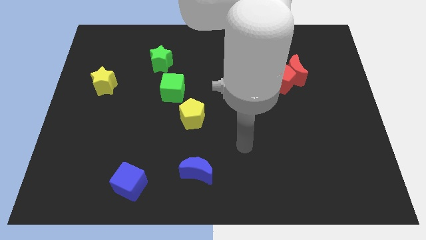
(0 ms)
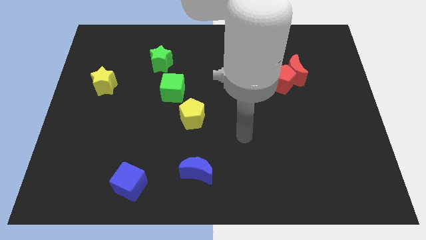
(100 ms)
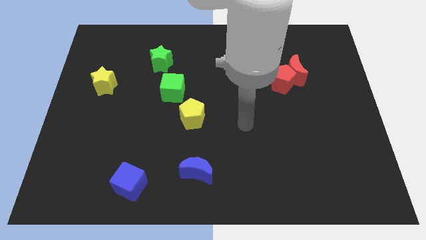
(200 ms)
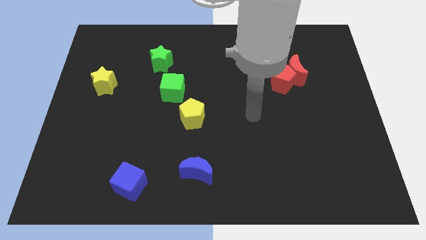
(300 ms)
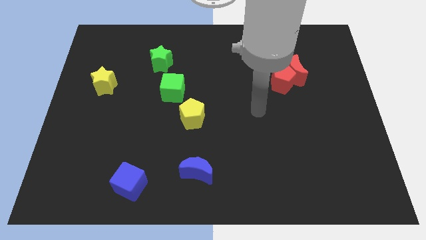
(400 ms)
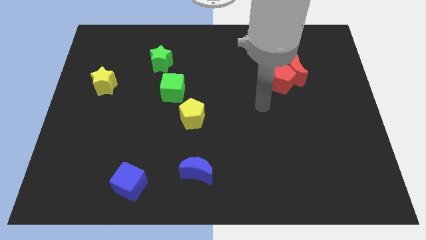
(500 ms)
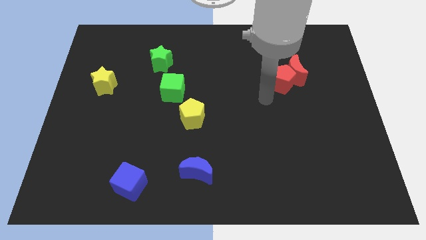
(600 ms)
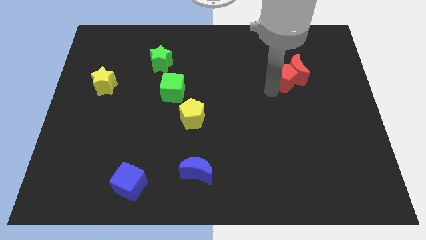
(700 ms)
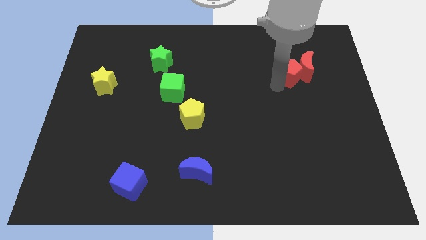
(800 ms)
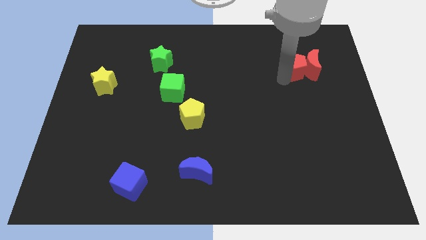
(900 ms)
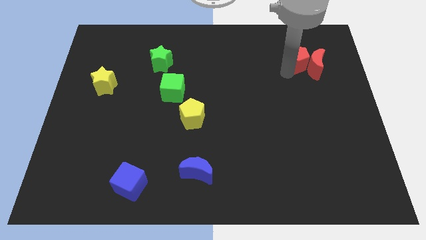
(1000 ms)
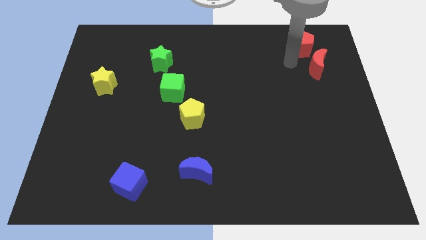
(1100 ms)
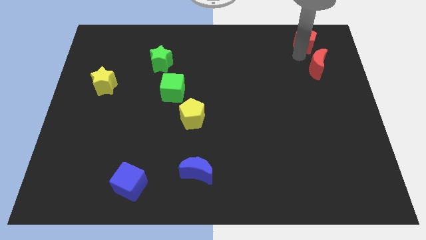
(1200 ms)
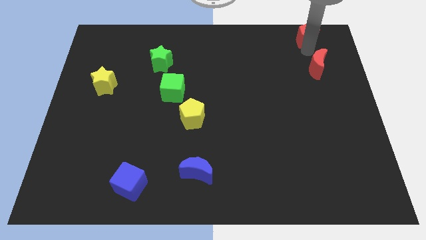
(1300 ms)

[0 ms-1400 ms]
separate the red moon from the red pentagon

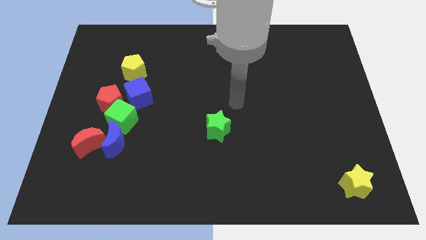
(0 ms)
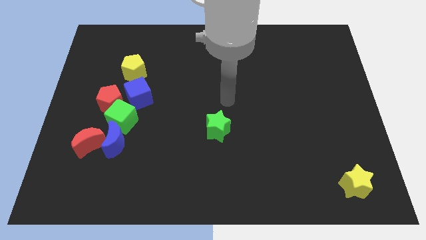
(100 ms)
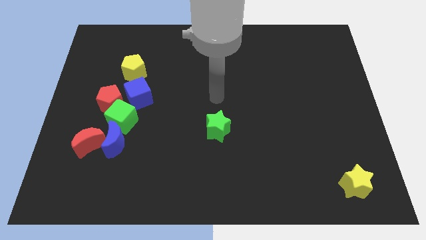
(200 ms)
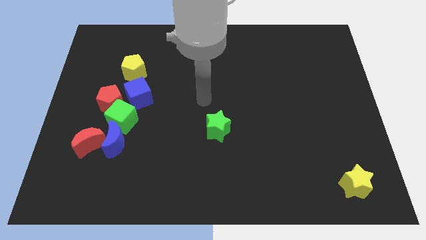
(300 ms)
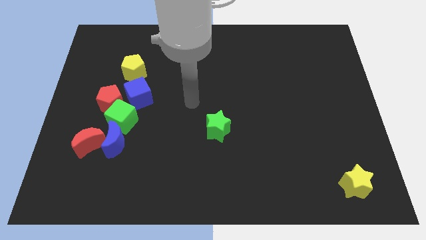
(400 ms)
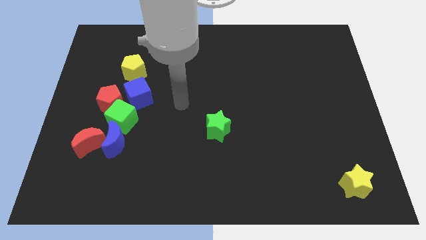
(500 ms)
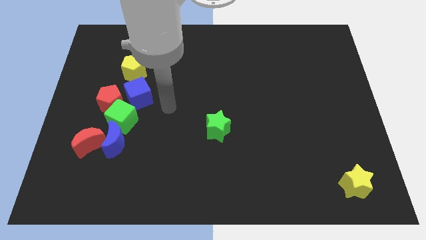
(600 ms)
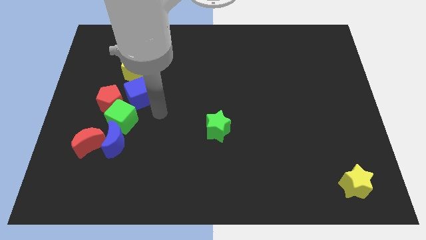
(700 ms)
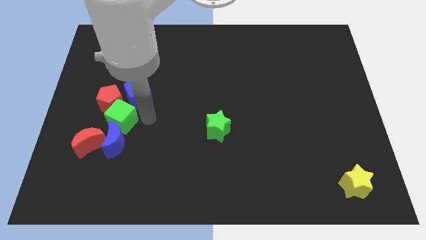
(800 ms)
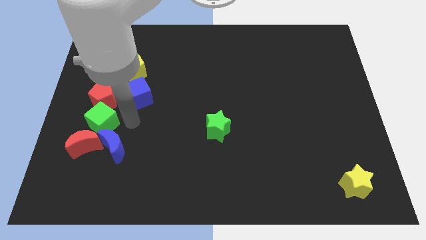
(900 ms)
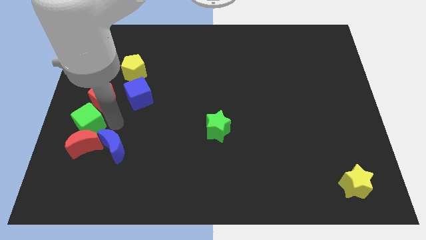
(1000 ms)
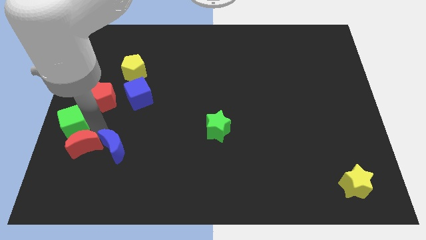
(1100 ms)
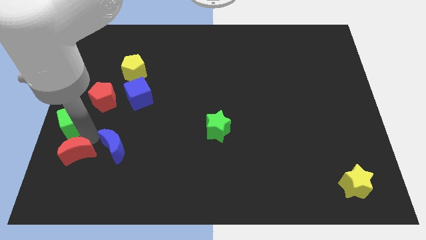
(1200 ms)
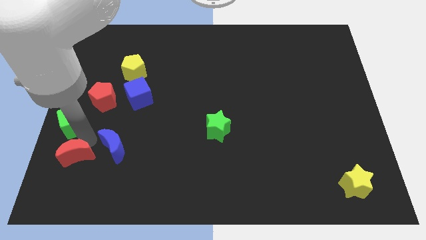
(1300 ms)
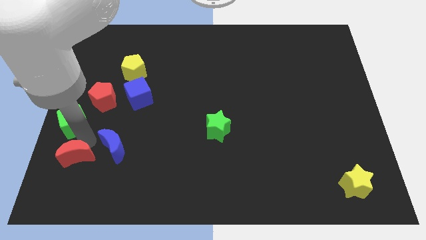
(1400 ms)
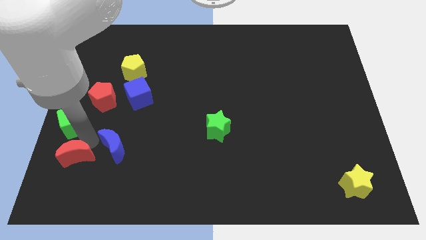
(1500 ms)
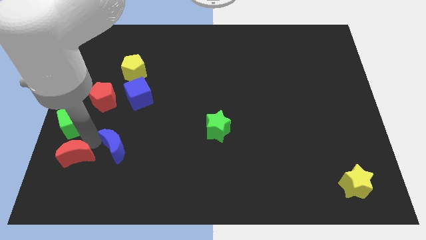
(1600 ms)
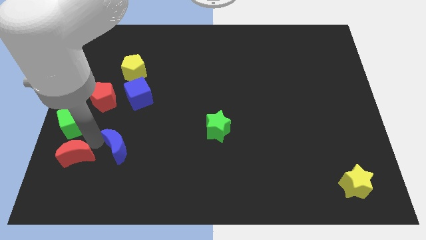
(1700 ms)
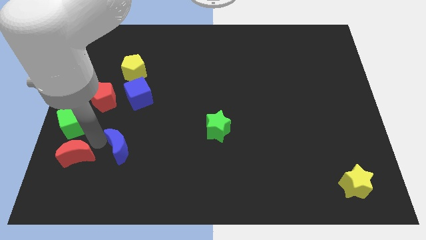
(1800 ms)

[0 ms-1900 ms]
pull the blue moon apart from the red moon and green cube

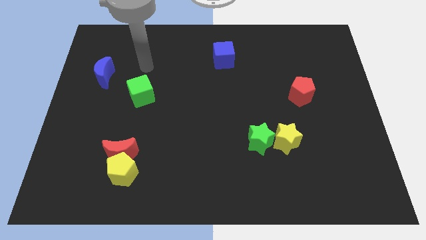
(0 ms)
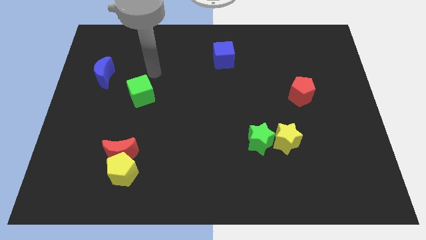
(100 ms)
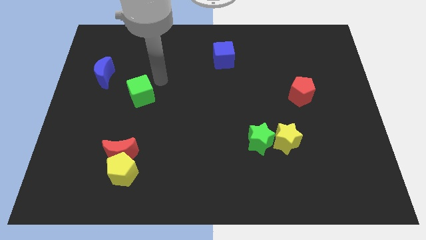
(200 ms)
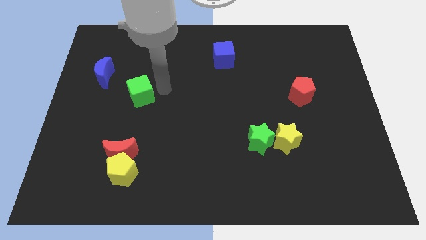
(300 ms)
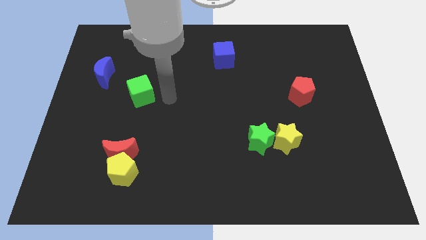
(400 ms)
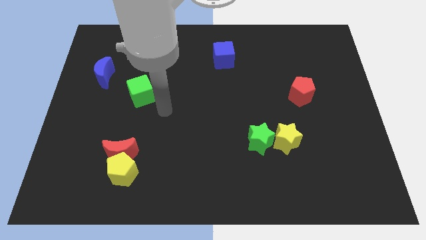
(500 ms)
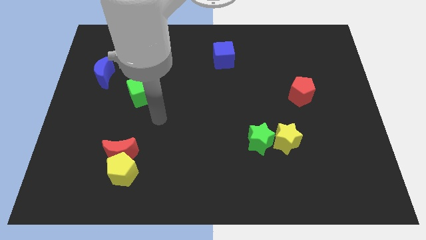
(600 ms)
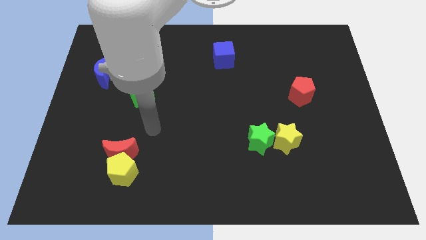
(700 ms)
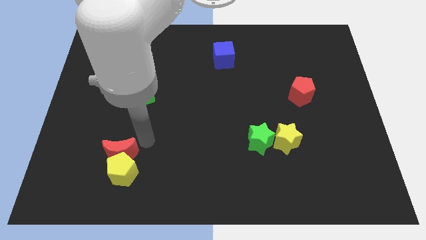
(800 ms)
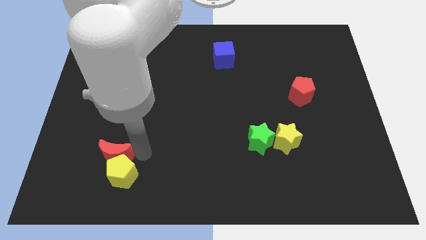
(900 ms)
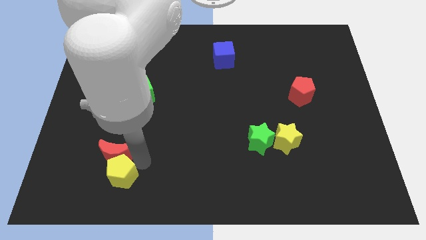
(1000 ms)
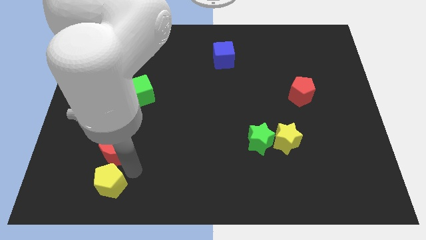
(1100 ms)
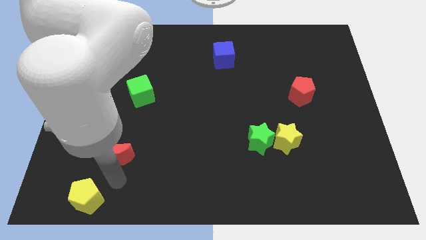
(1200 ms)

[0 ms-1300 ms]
pull the red moon apart from the yellow pentagon

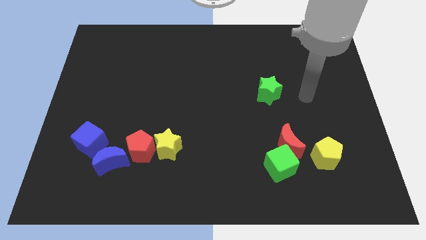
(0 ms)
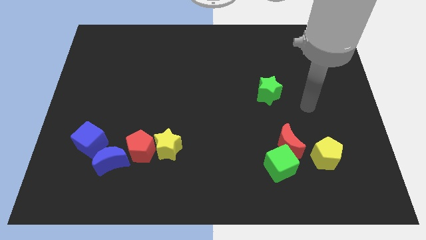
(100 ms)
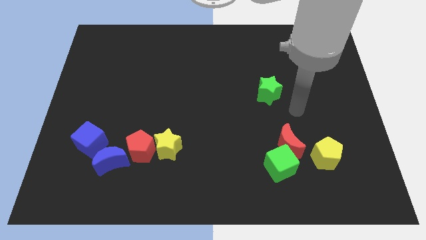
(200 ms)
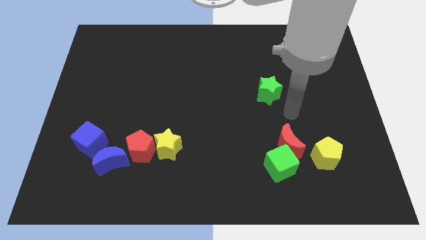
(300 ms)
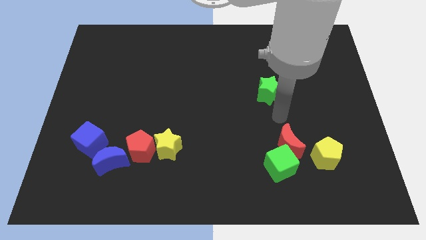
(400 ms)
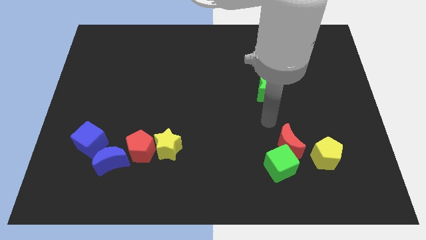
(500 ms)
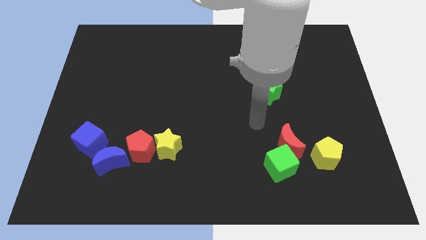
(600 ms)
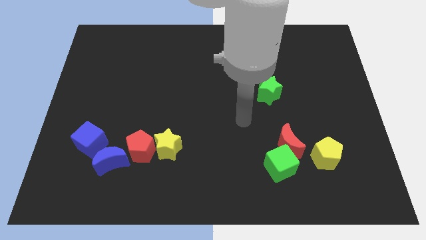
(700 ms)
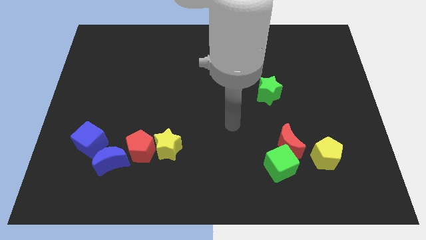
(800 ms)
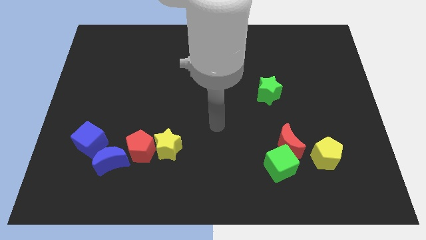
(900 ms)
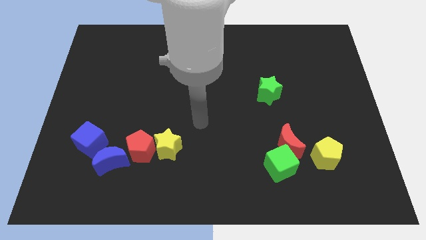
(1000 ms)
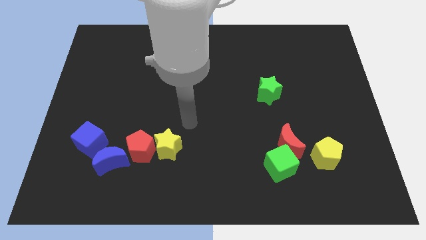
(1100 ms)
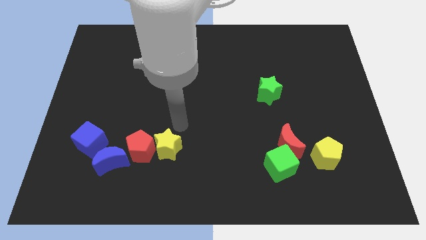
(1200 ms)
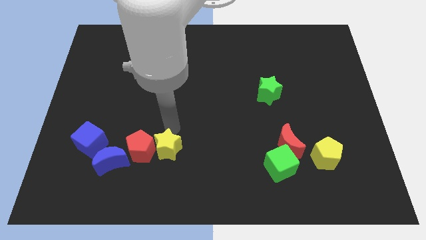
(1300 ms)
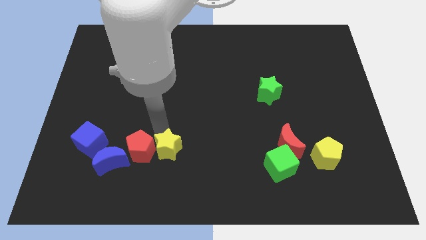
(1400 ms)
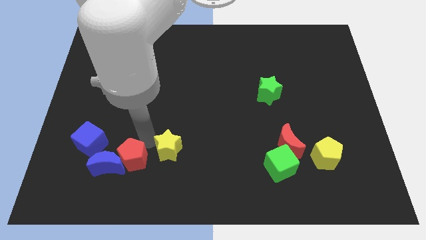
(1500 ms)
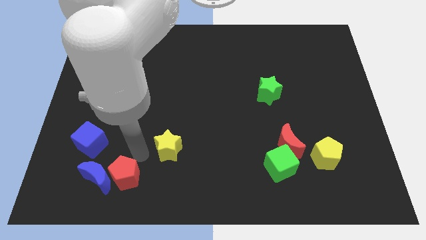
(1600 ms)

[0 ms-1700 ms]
pull the yellow star apart from the red pentagon

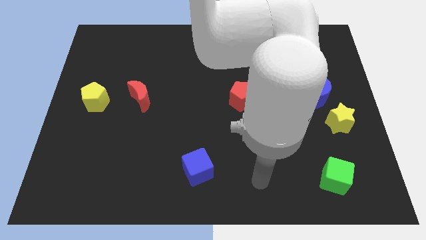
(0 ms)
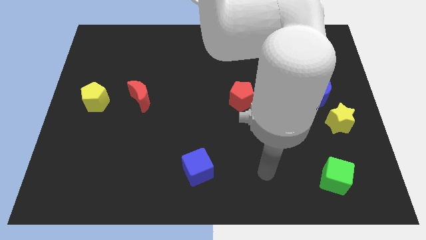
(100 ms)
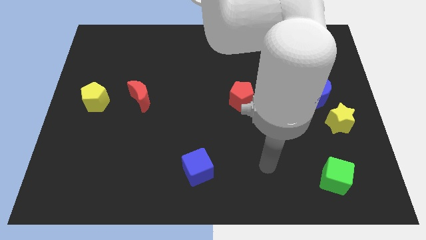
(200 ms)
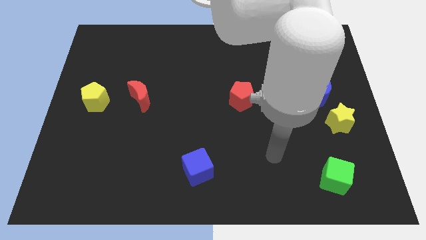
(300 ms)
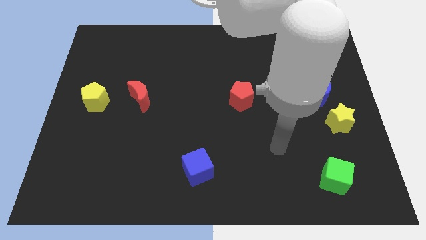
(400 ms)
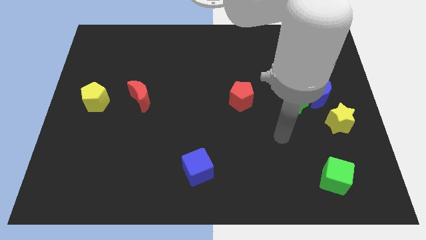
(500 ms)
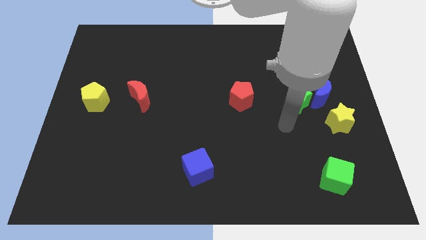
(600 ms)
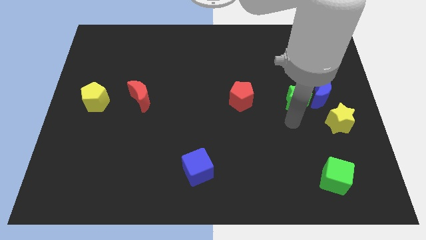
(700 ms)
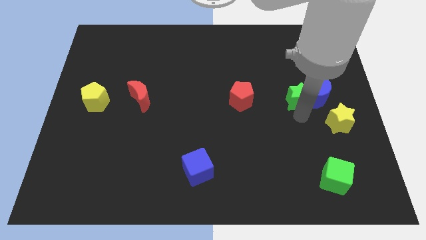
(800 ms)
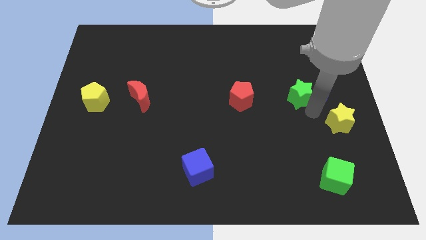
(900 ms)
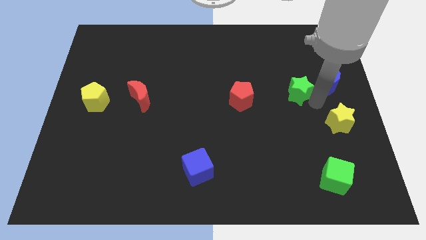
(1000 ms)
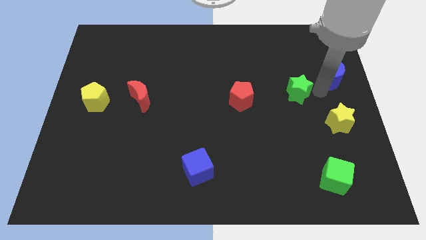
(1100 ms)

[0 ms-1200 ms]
pull the green star apart from the blue moon

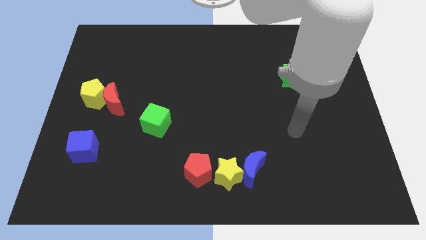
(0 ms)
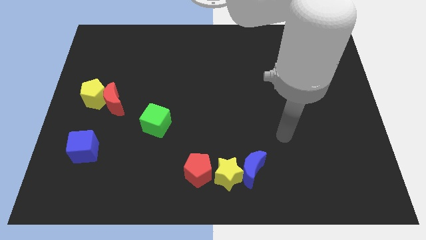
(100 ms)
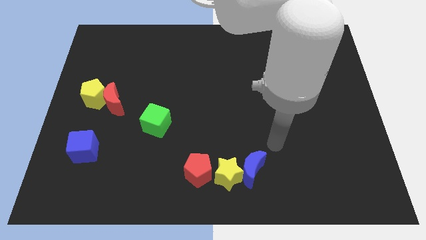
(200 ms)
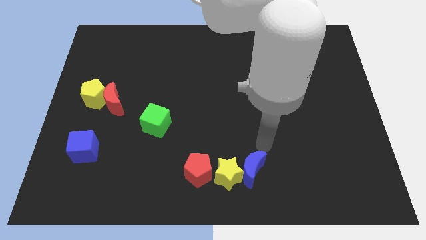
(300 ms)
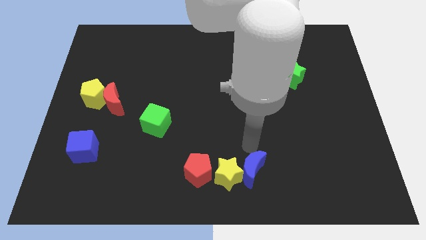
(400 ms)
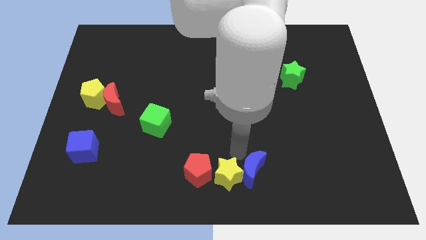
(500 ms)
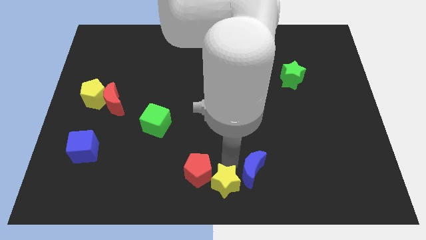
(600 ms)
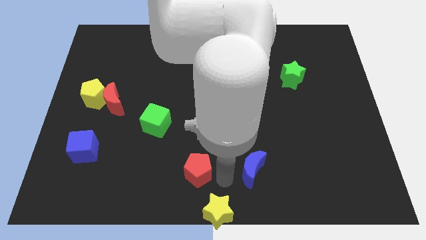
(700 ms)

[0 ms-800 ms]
move the blue moon away from the yellow star

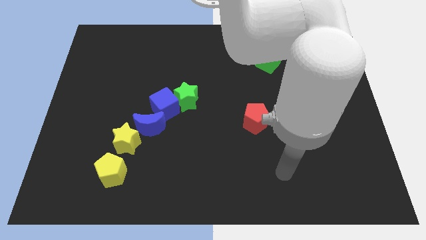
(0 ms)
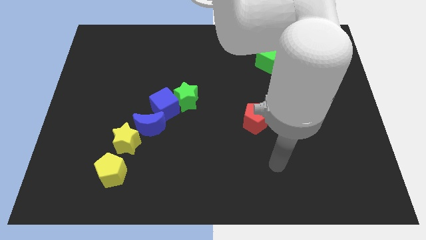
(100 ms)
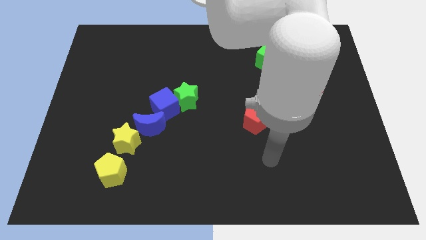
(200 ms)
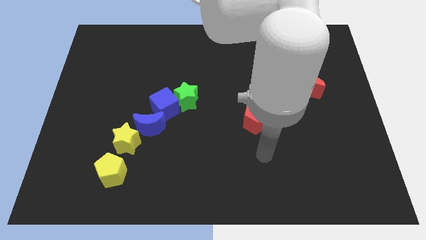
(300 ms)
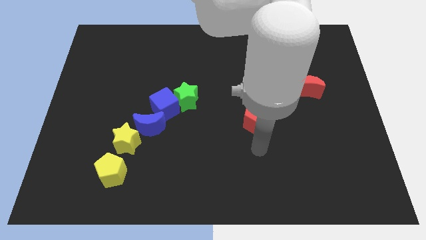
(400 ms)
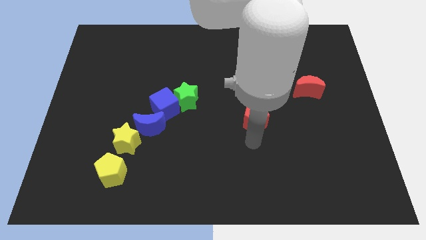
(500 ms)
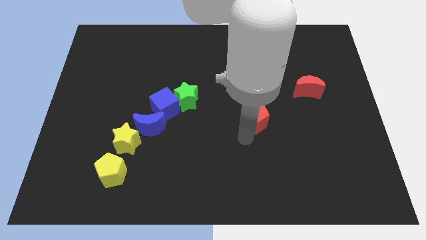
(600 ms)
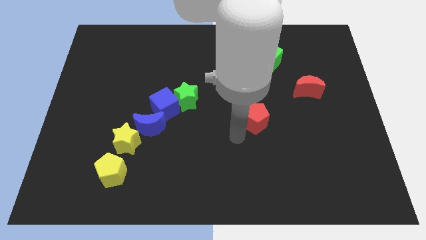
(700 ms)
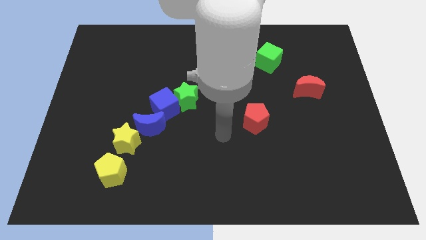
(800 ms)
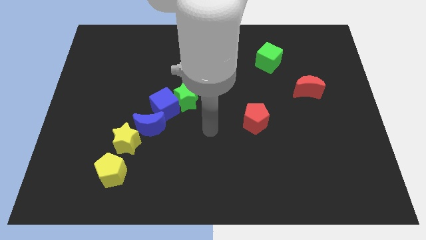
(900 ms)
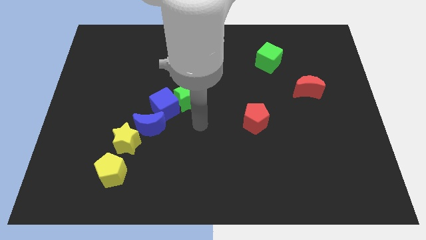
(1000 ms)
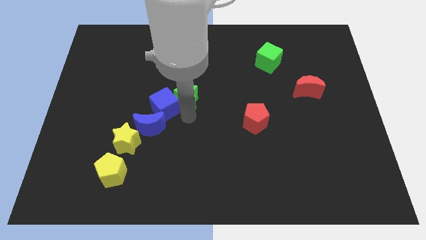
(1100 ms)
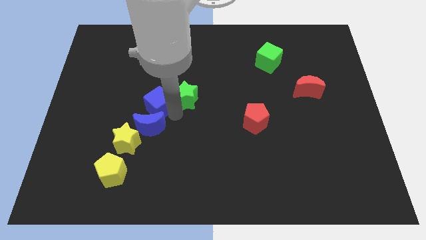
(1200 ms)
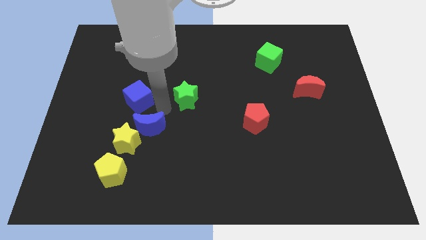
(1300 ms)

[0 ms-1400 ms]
separate the green star from the blue cube
